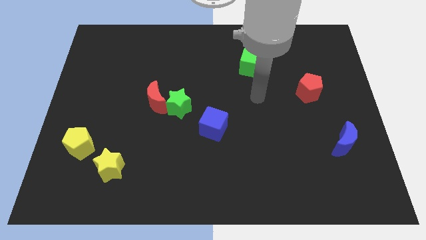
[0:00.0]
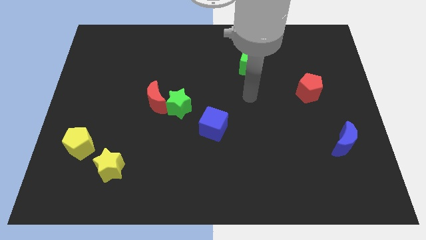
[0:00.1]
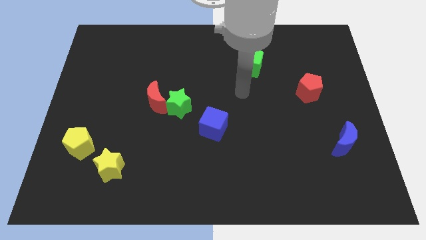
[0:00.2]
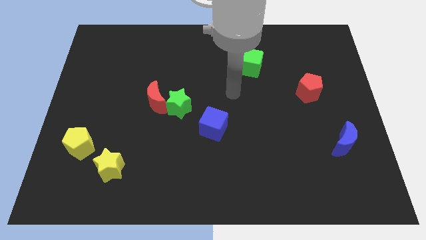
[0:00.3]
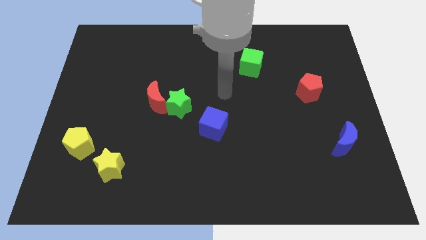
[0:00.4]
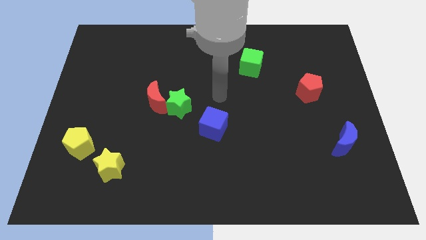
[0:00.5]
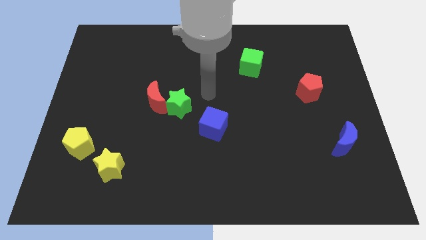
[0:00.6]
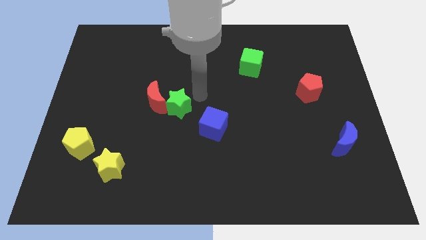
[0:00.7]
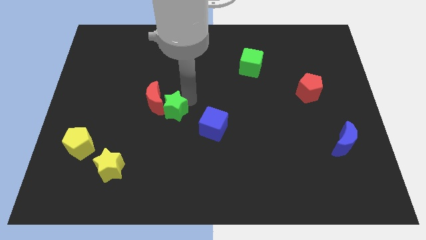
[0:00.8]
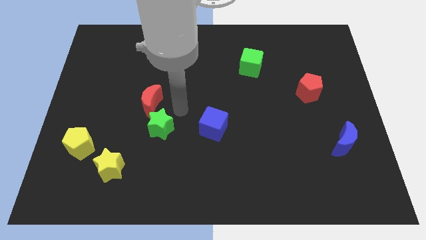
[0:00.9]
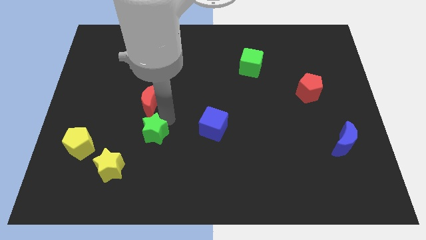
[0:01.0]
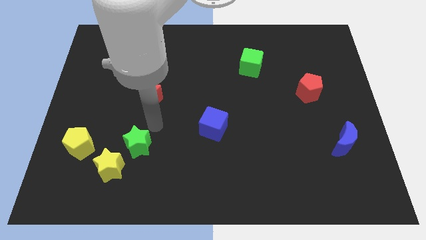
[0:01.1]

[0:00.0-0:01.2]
move the red moon away from the green star

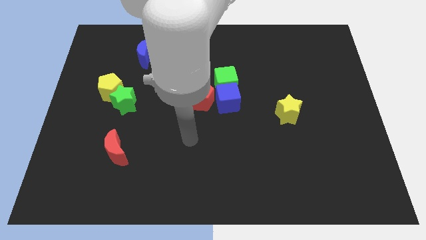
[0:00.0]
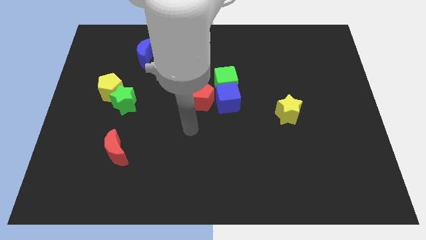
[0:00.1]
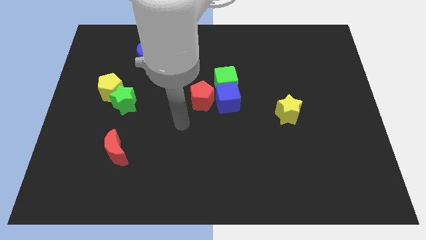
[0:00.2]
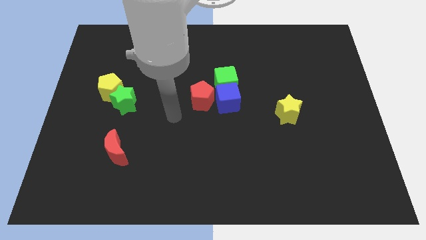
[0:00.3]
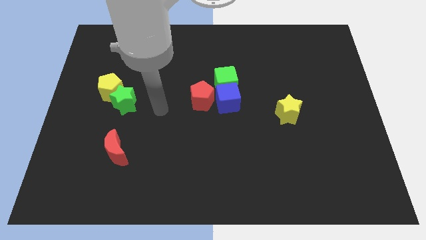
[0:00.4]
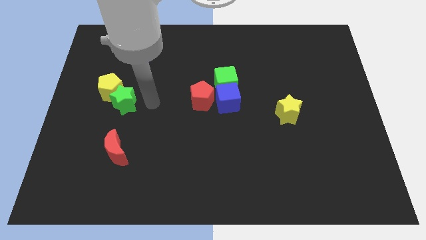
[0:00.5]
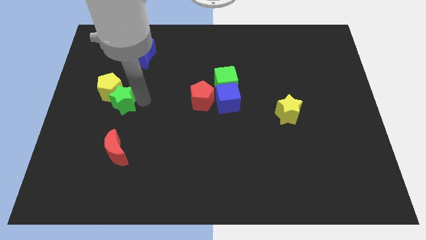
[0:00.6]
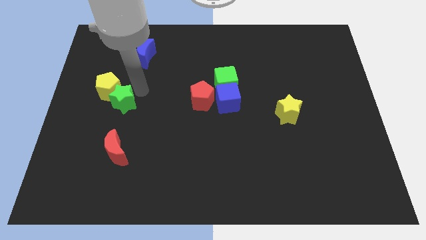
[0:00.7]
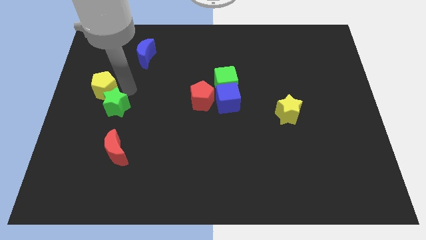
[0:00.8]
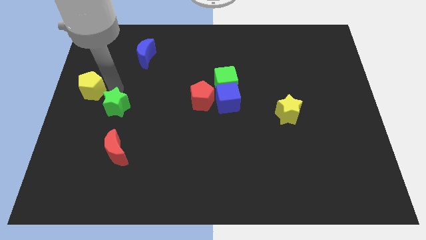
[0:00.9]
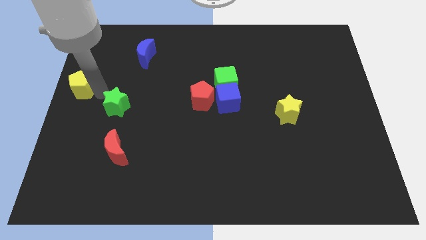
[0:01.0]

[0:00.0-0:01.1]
move the green star away from the yellow pentagon

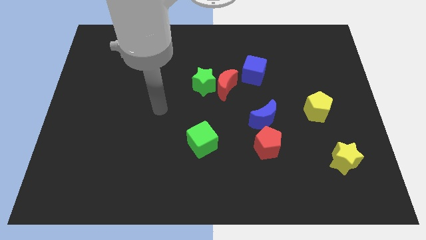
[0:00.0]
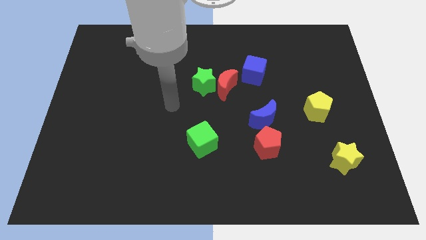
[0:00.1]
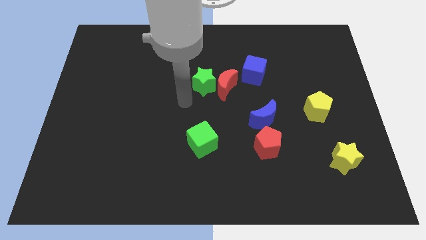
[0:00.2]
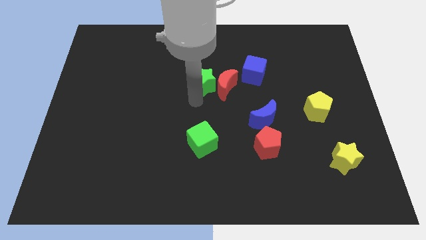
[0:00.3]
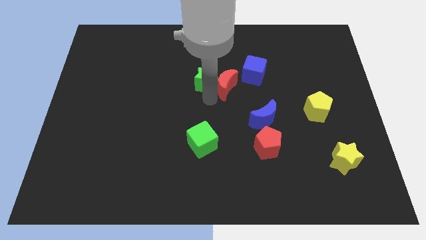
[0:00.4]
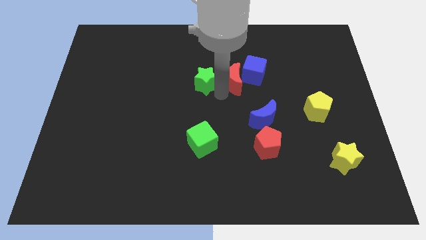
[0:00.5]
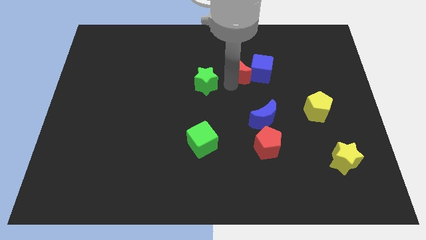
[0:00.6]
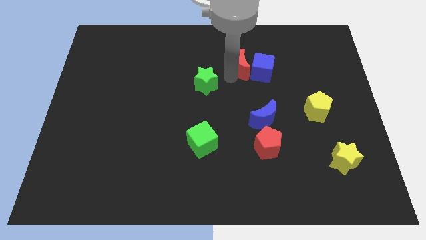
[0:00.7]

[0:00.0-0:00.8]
move the green star away from the red moon

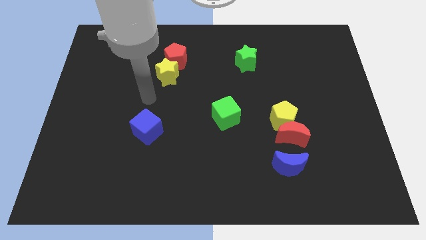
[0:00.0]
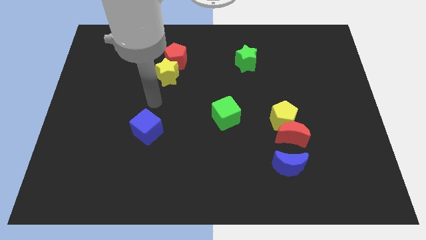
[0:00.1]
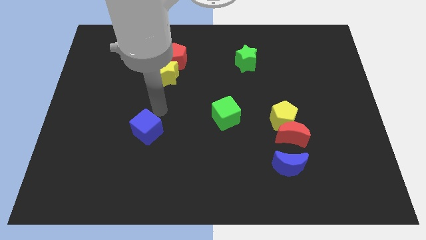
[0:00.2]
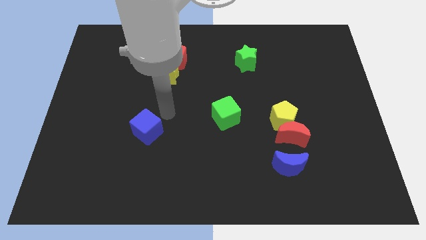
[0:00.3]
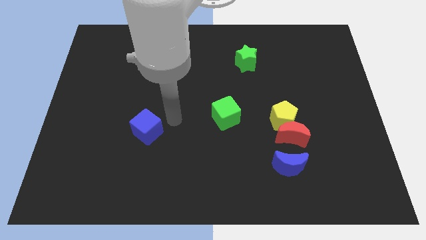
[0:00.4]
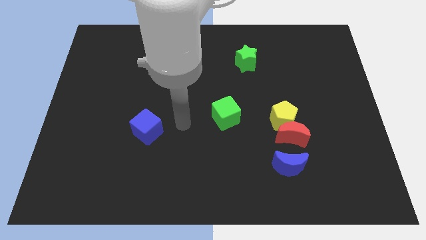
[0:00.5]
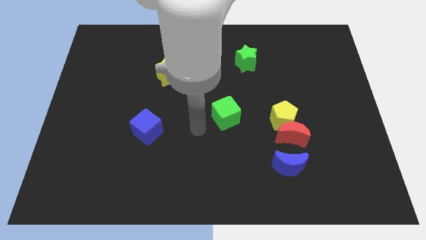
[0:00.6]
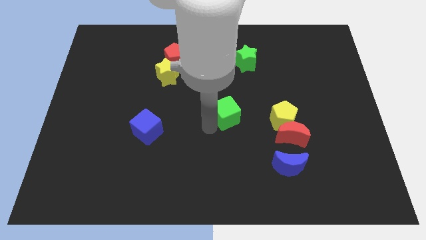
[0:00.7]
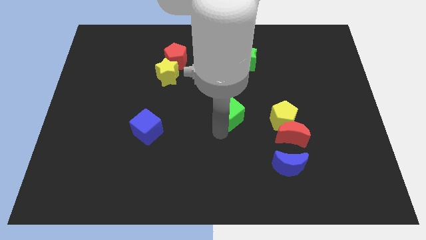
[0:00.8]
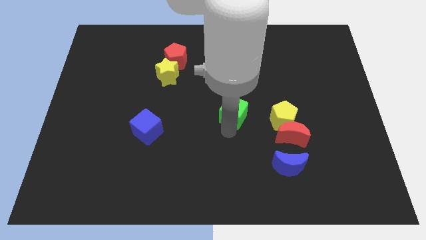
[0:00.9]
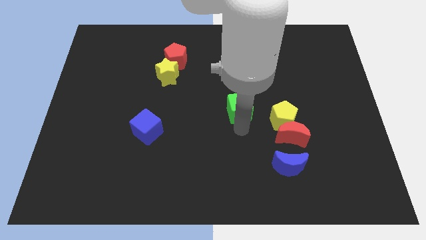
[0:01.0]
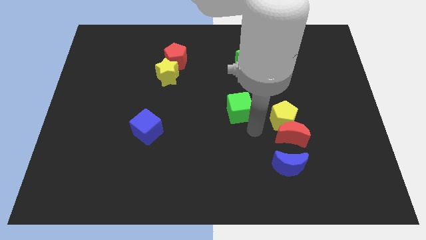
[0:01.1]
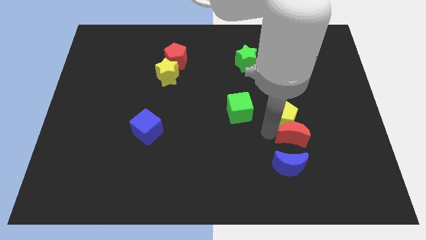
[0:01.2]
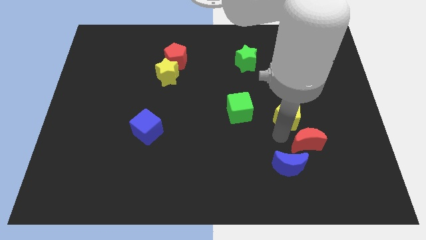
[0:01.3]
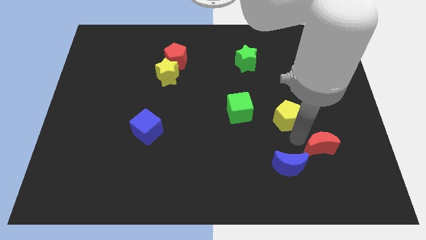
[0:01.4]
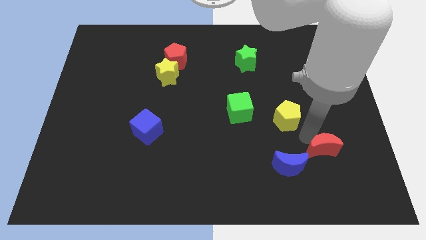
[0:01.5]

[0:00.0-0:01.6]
pull the yellow pentagon apart from the red moon

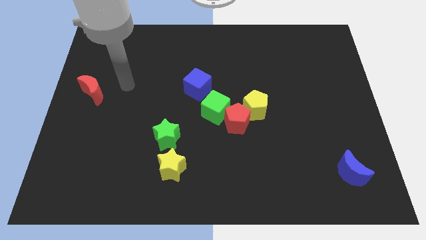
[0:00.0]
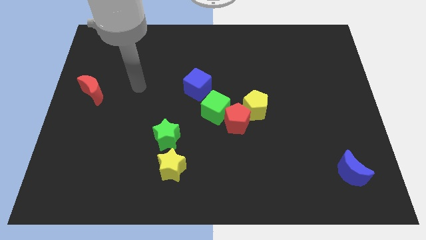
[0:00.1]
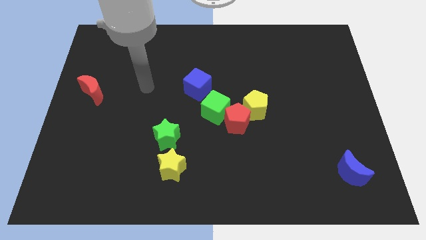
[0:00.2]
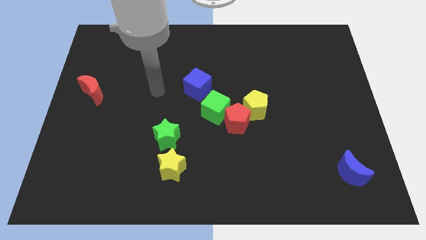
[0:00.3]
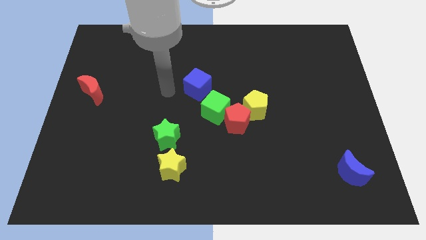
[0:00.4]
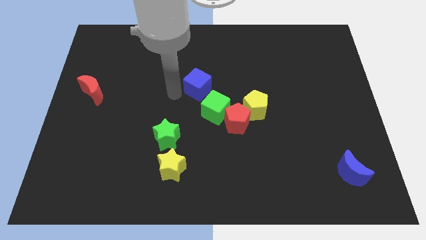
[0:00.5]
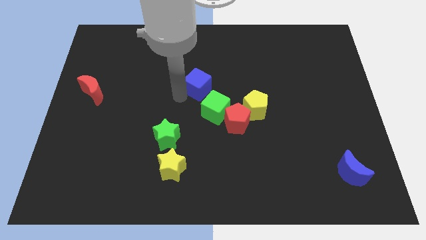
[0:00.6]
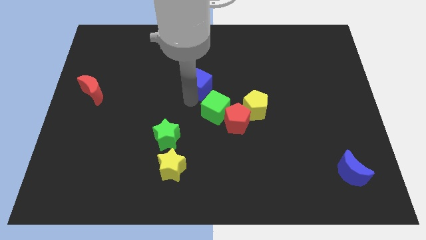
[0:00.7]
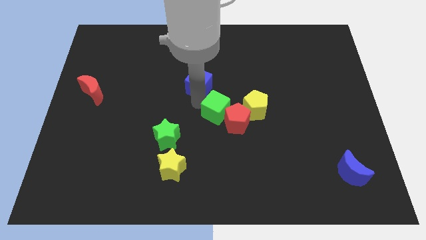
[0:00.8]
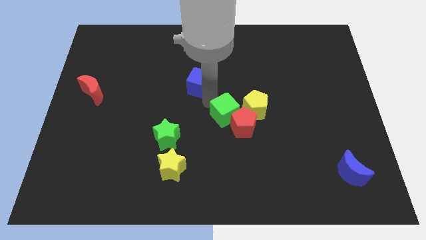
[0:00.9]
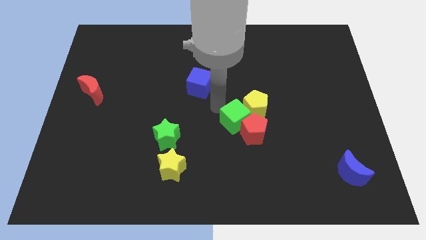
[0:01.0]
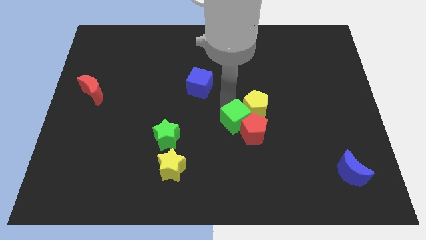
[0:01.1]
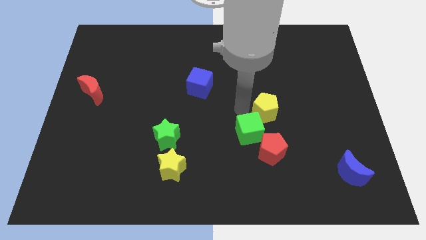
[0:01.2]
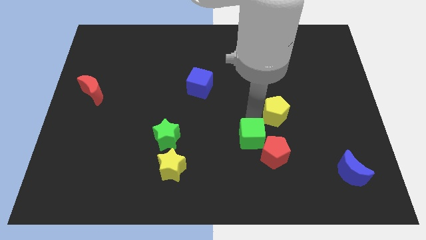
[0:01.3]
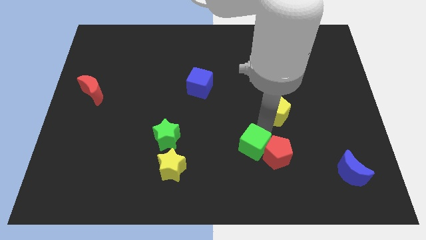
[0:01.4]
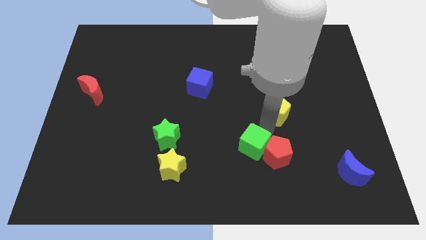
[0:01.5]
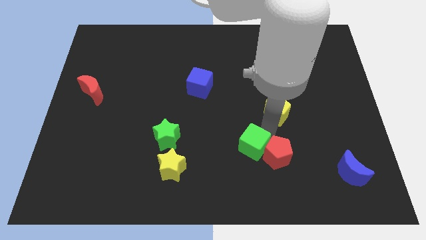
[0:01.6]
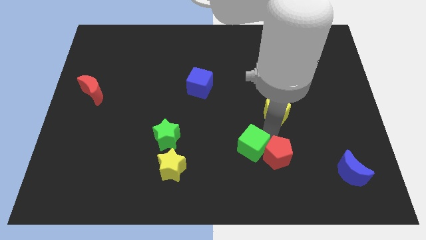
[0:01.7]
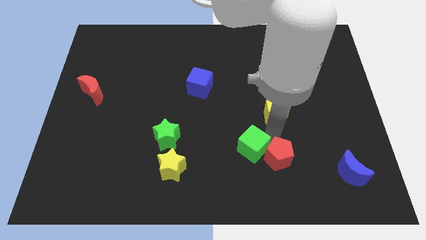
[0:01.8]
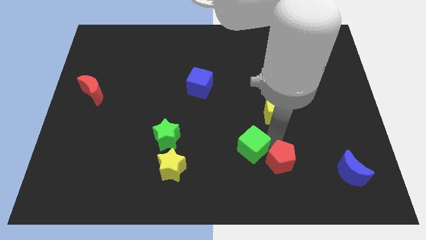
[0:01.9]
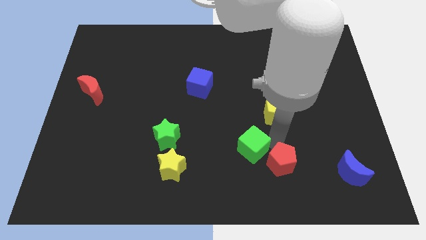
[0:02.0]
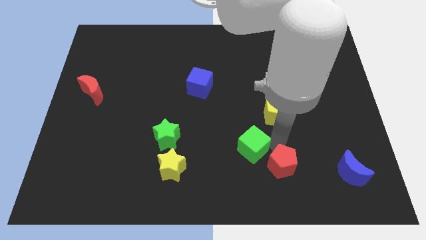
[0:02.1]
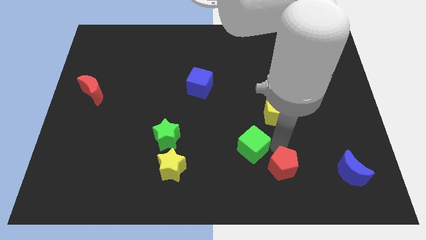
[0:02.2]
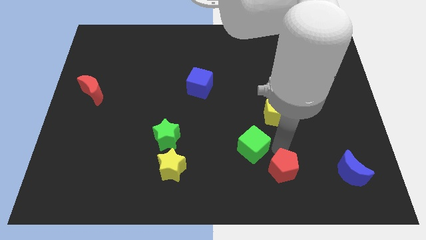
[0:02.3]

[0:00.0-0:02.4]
move the red pentagon away from the green cube and yellow pentagon

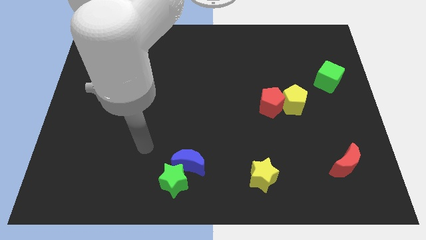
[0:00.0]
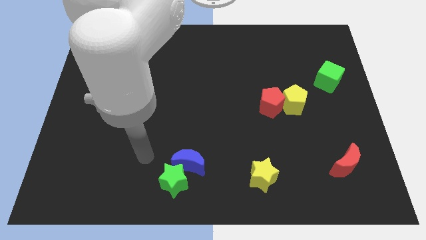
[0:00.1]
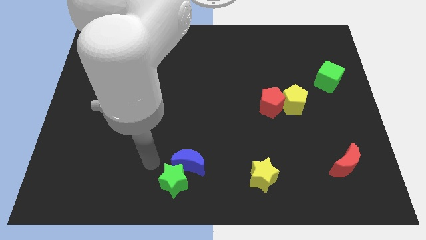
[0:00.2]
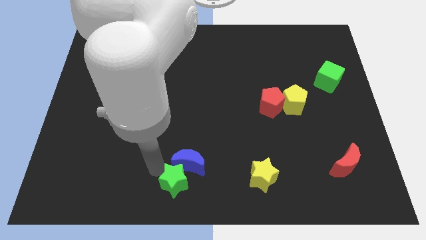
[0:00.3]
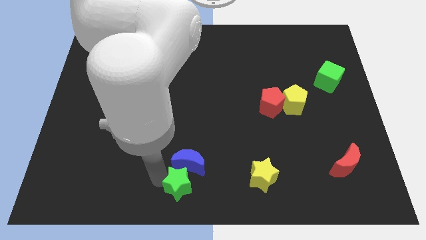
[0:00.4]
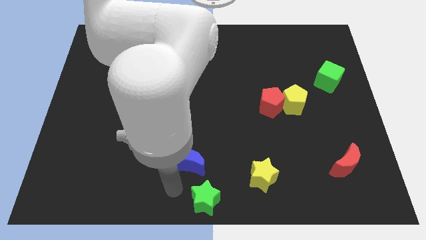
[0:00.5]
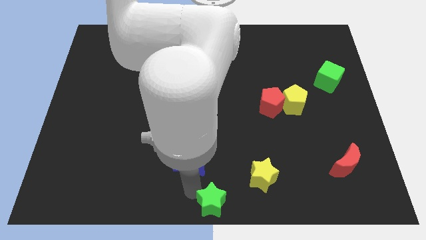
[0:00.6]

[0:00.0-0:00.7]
separate the blue moon from the green star

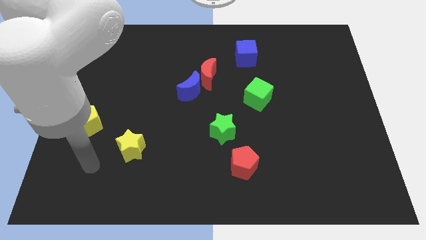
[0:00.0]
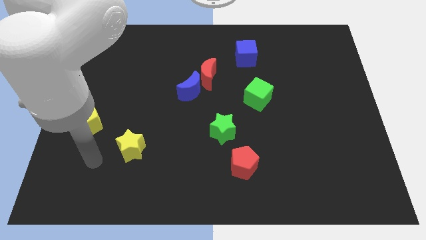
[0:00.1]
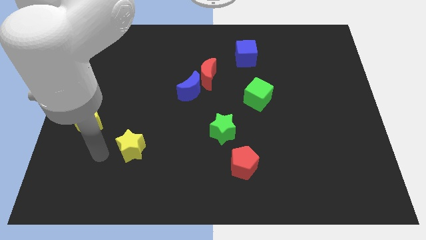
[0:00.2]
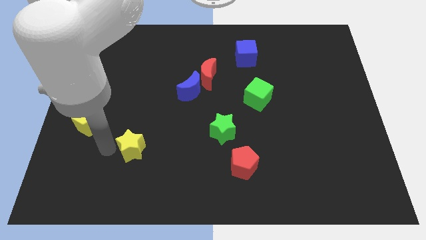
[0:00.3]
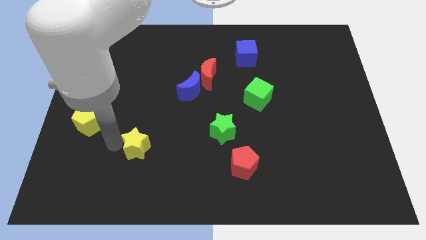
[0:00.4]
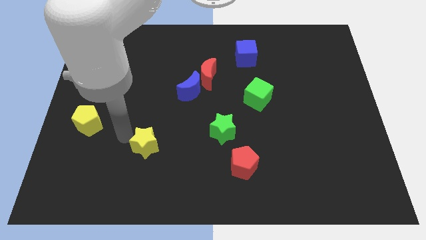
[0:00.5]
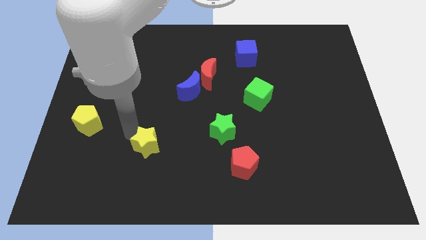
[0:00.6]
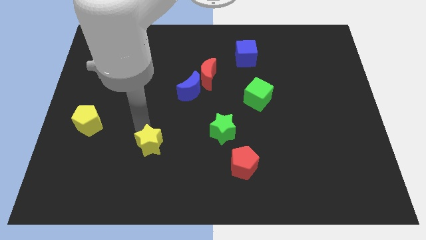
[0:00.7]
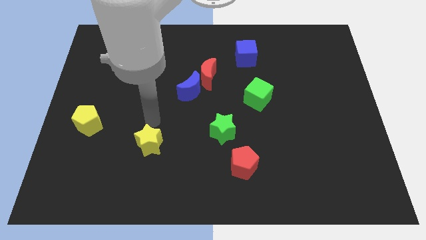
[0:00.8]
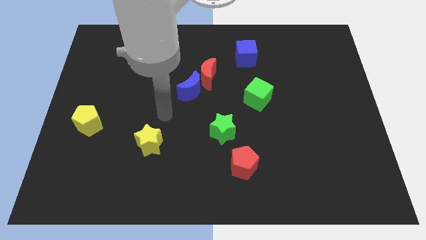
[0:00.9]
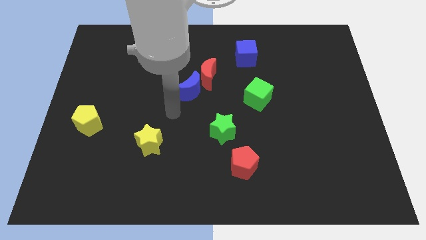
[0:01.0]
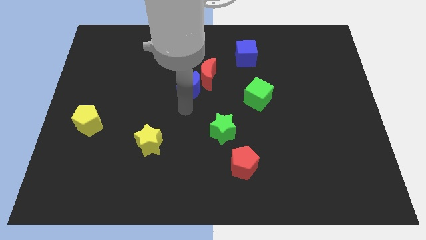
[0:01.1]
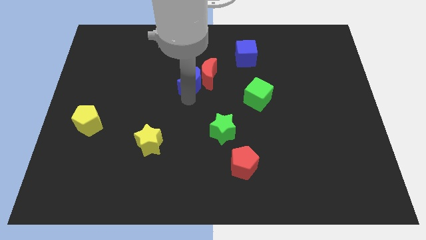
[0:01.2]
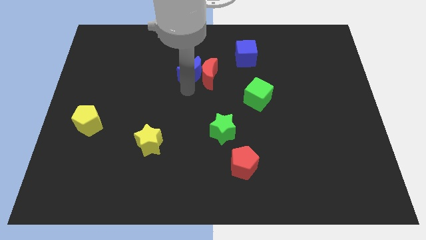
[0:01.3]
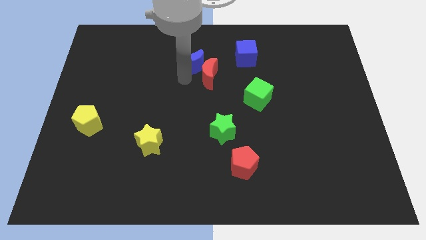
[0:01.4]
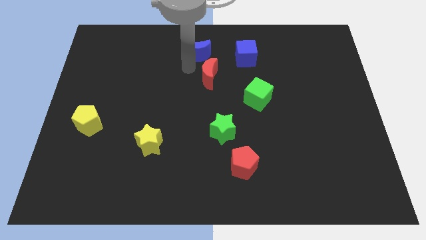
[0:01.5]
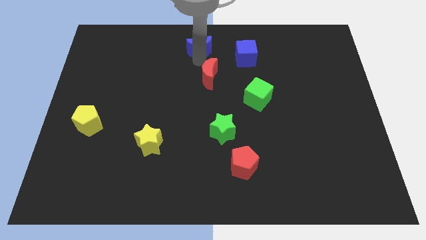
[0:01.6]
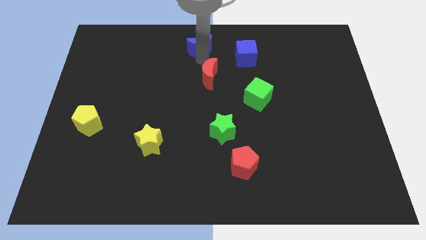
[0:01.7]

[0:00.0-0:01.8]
move the red moon away from the blue moon
